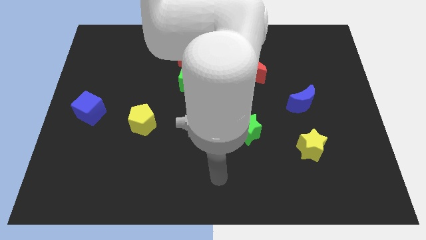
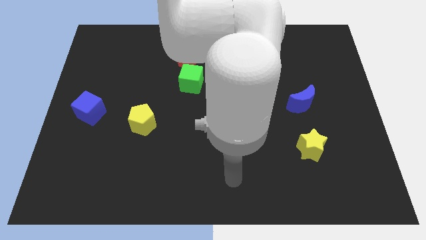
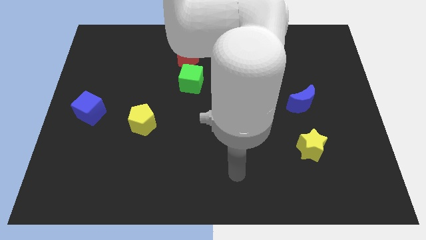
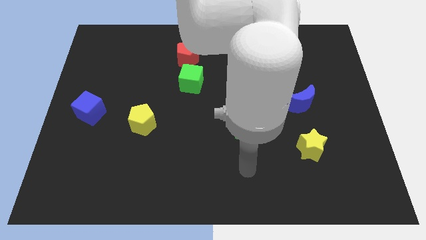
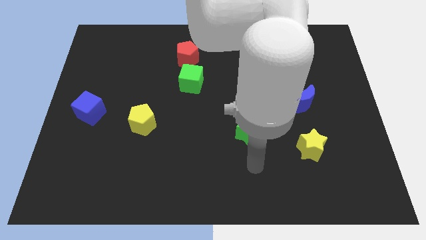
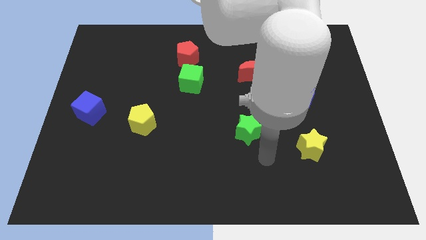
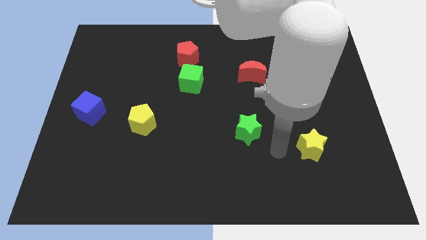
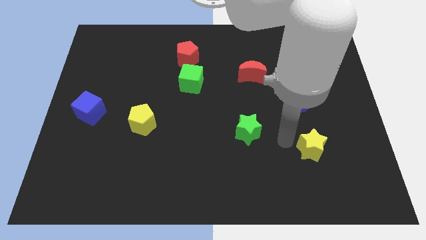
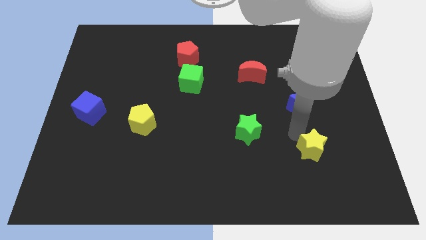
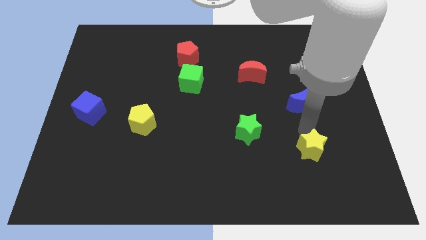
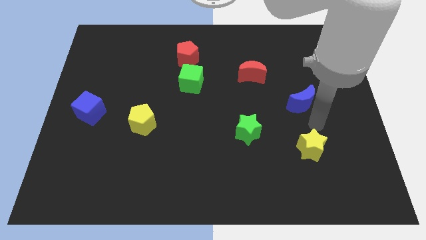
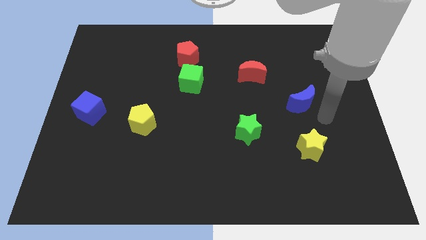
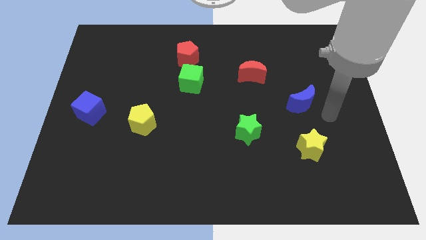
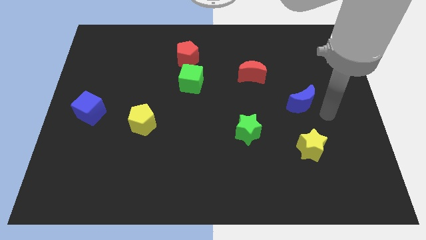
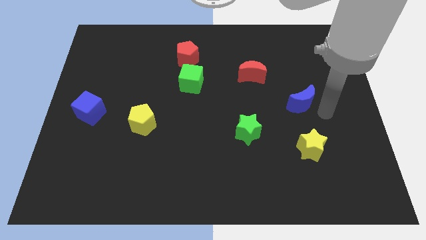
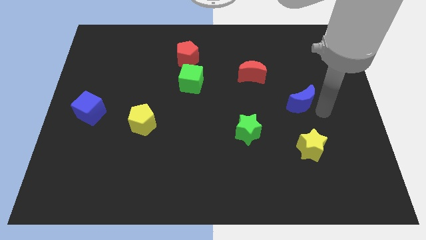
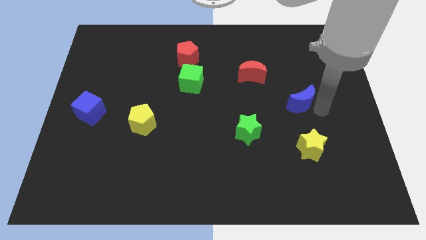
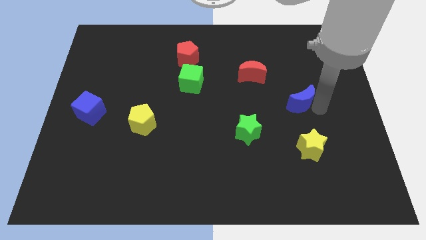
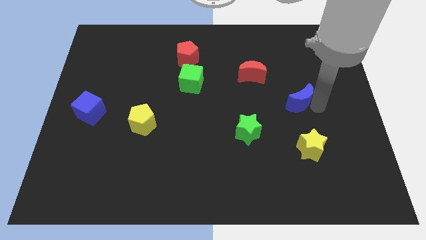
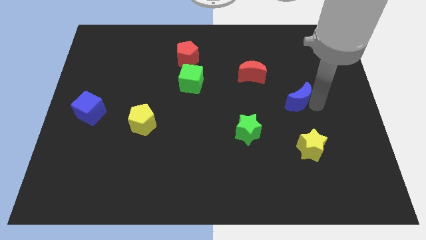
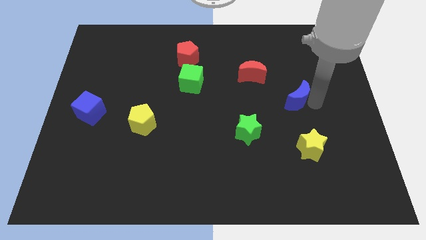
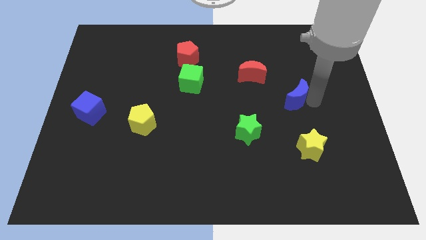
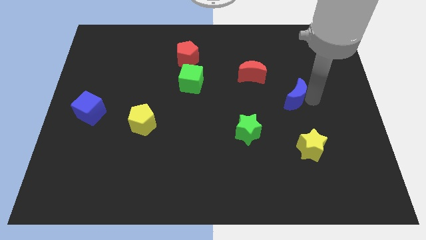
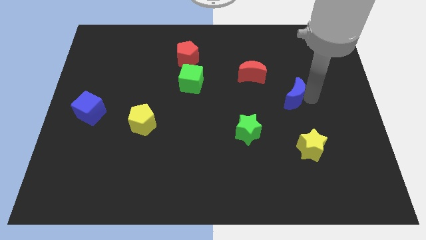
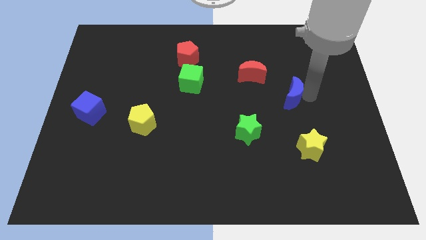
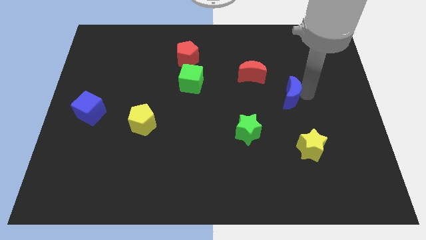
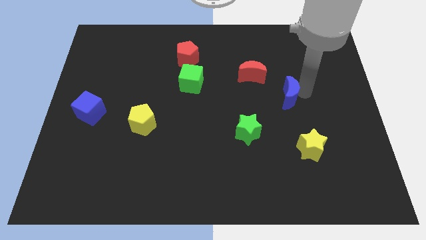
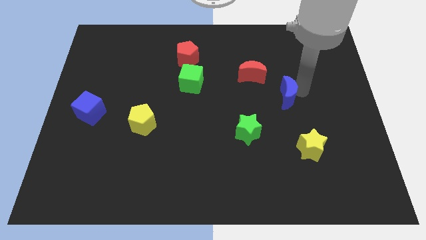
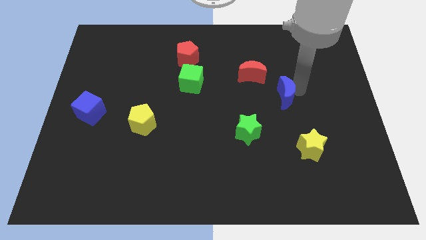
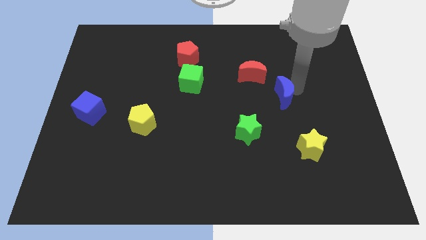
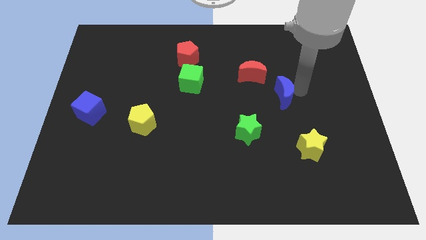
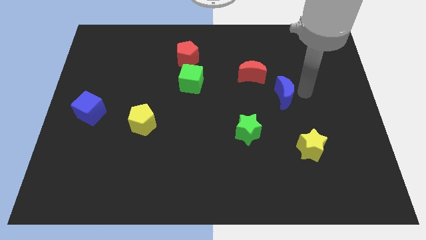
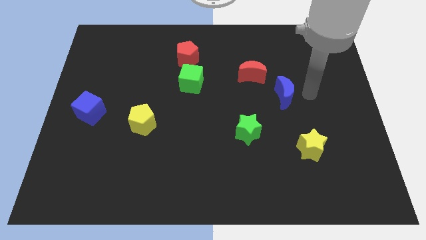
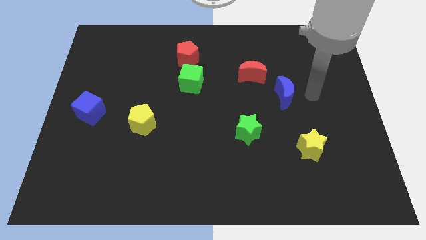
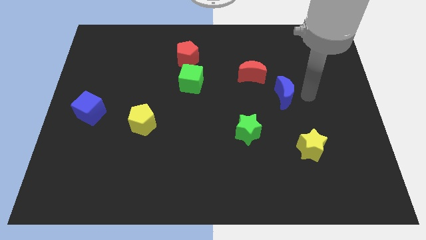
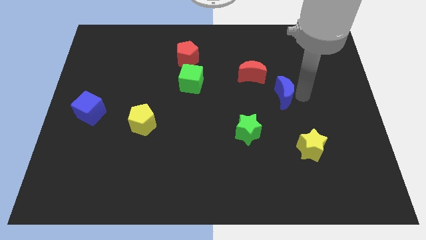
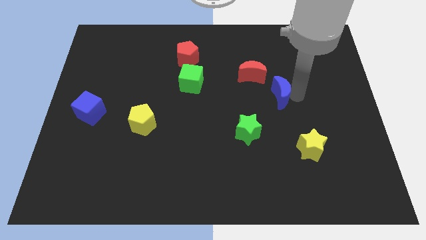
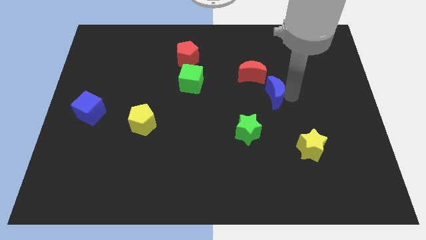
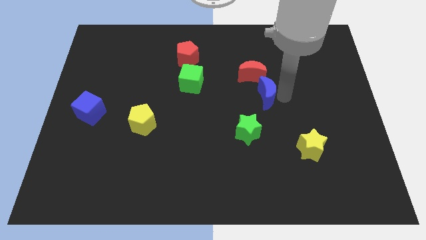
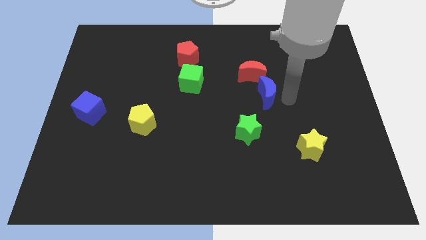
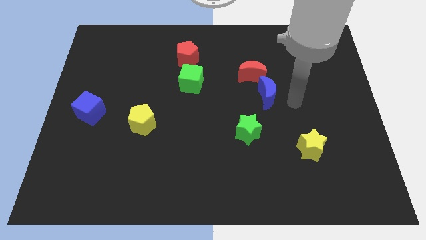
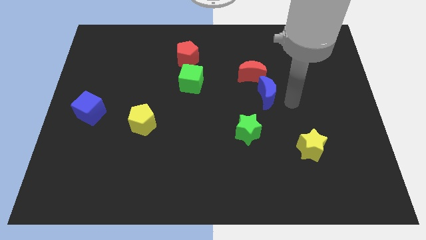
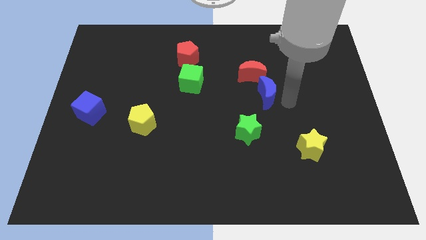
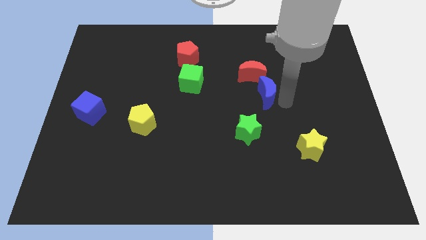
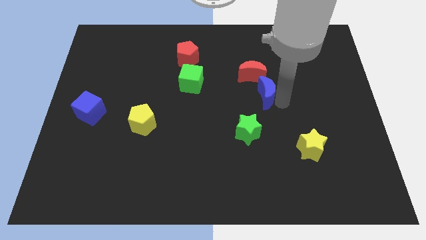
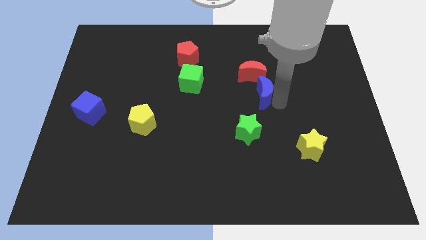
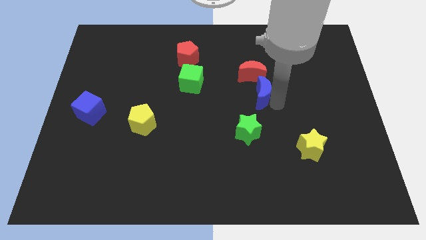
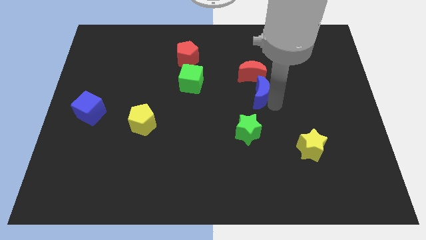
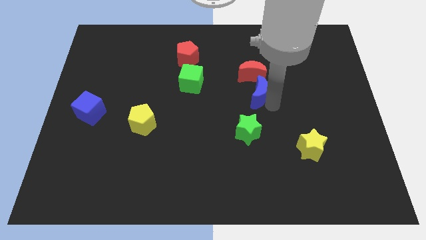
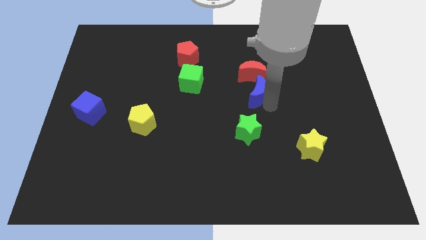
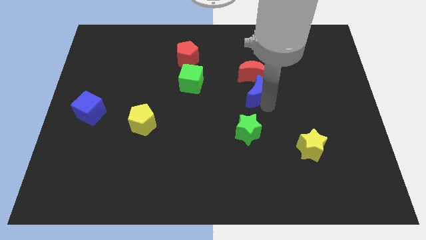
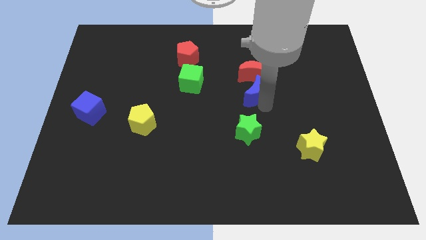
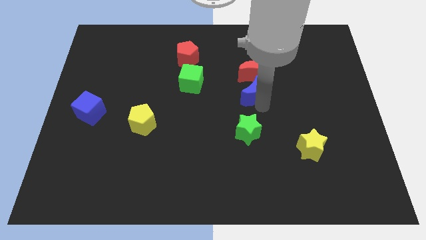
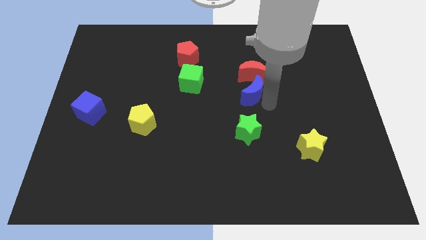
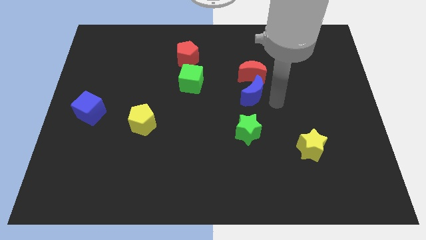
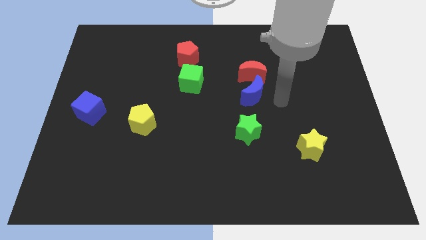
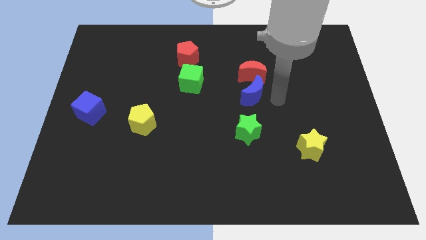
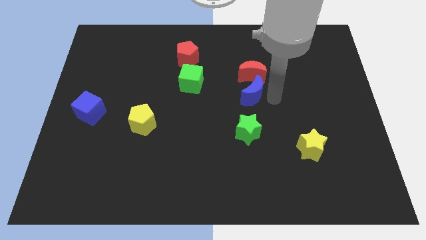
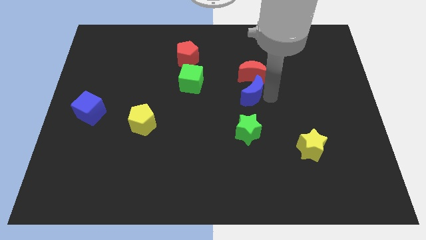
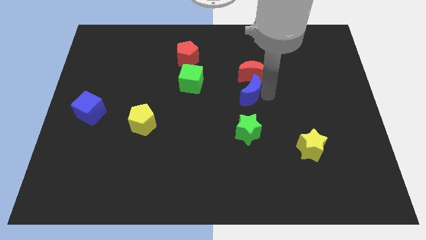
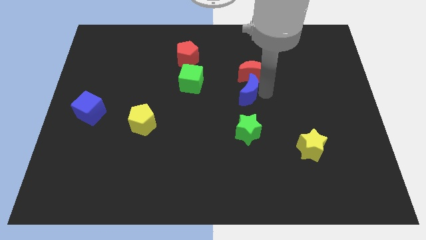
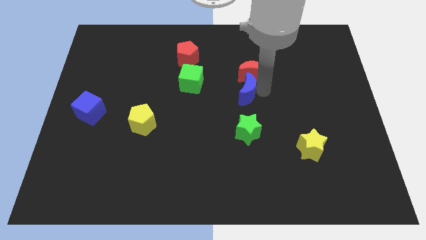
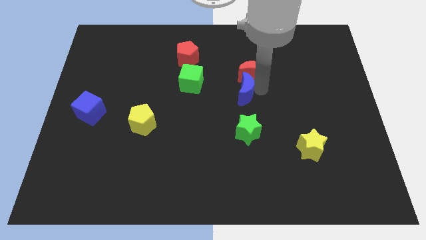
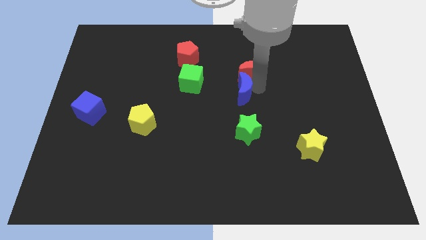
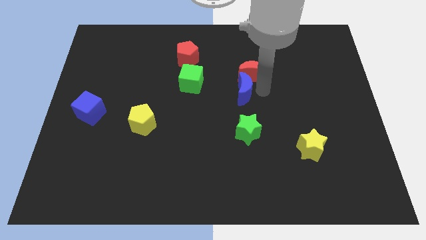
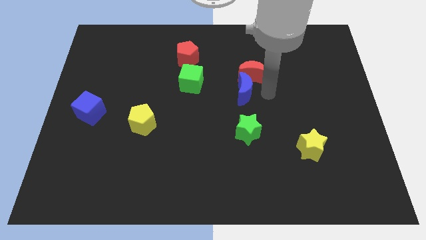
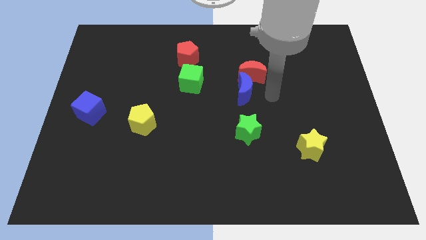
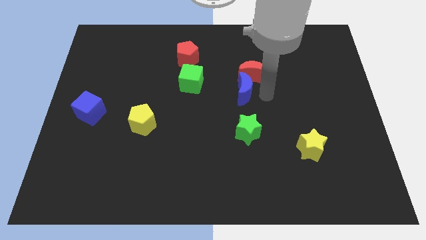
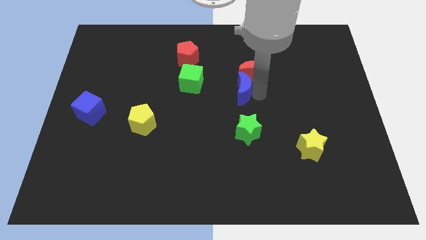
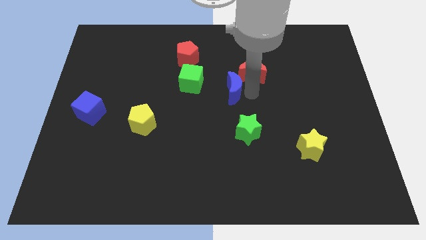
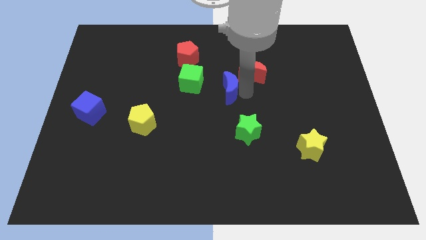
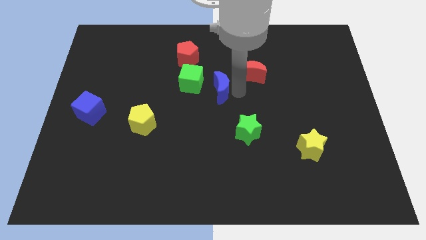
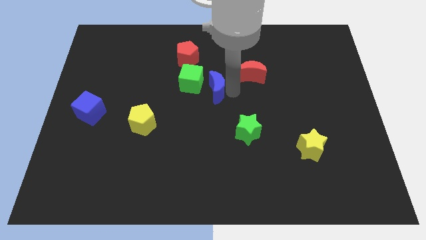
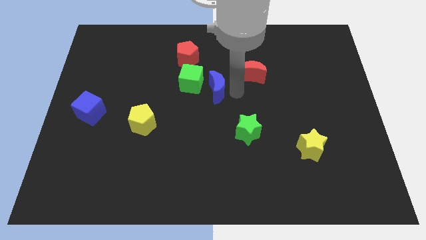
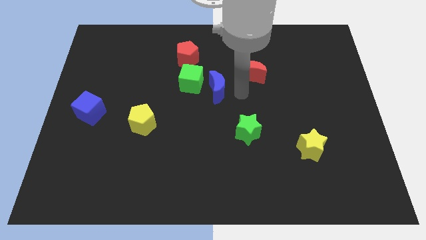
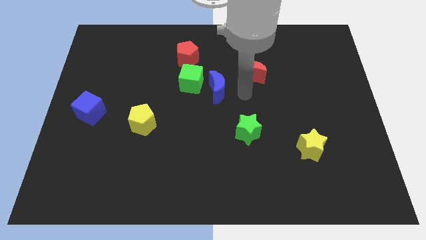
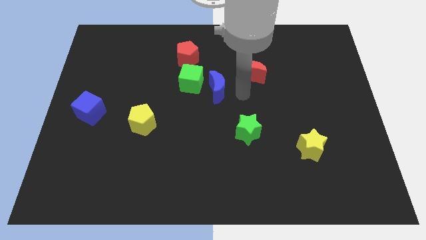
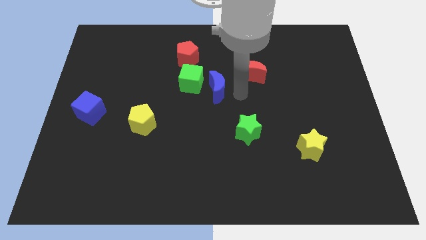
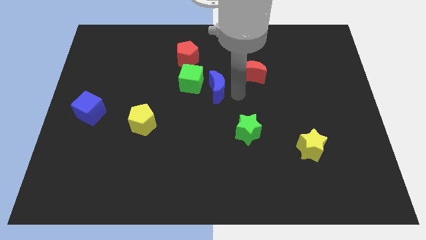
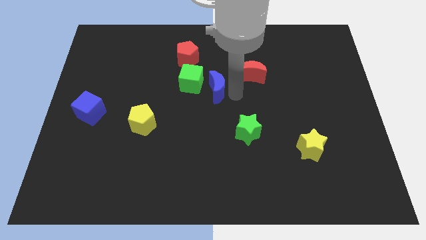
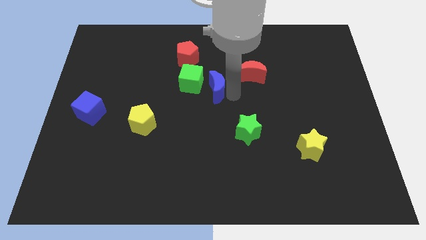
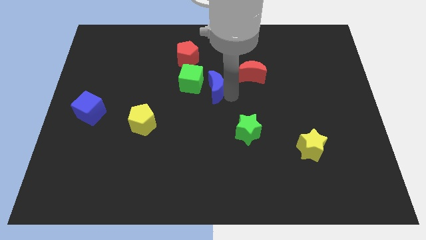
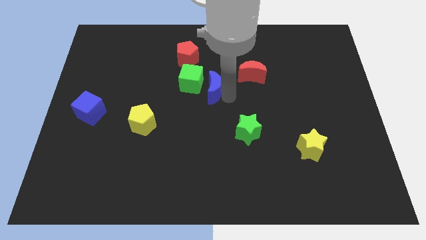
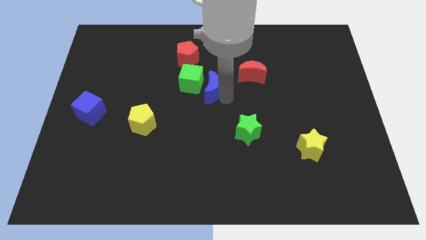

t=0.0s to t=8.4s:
move the blue moon to the green cube
